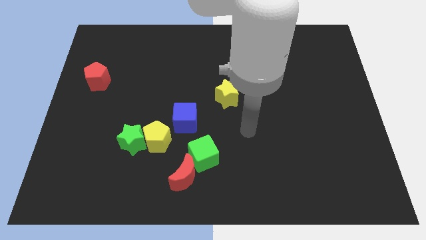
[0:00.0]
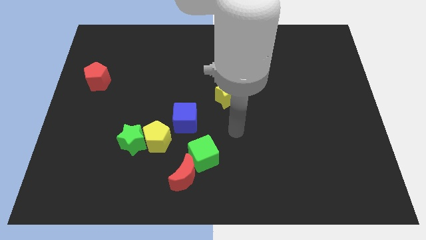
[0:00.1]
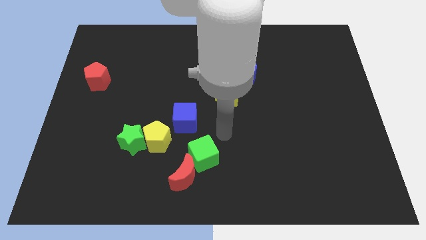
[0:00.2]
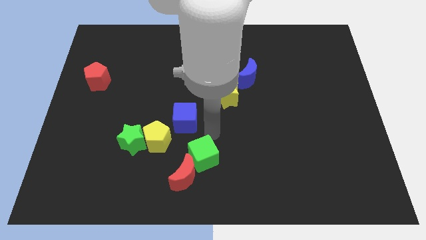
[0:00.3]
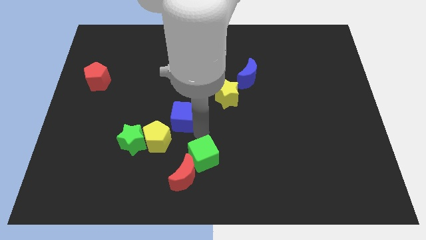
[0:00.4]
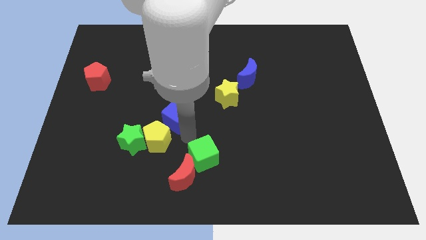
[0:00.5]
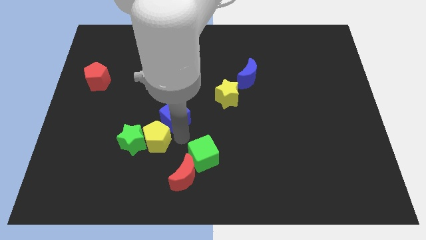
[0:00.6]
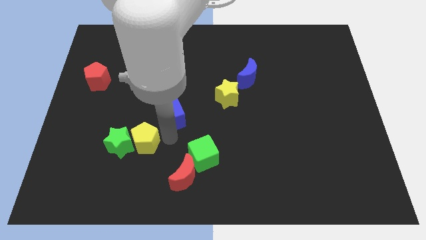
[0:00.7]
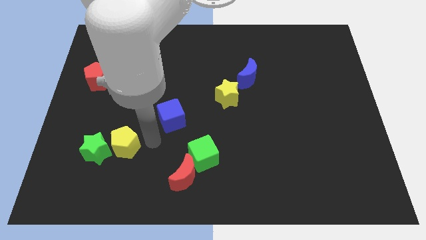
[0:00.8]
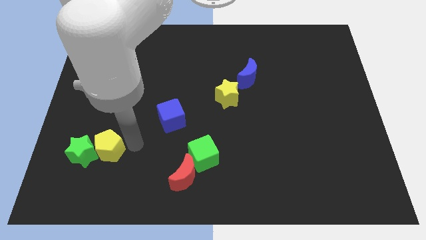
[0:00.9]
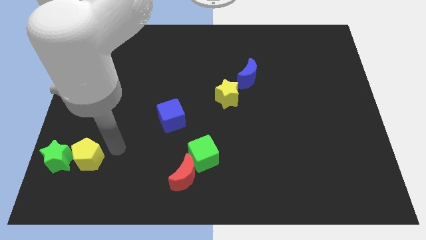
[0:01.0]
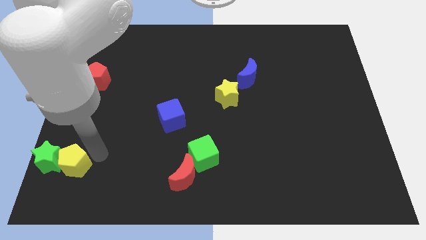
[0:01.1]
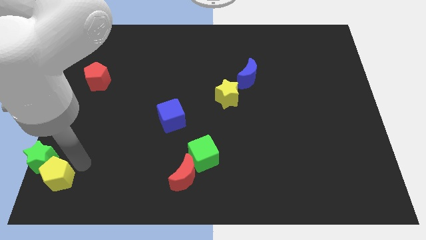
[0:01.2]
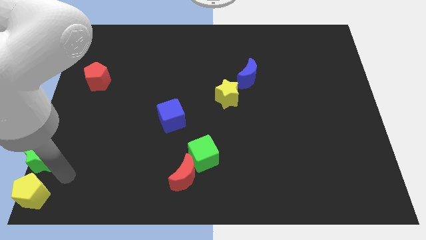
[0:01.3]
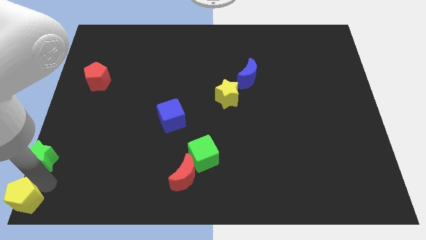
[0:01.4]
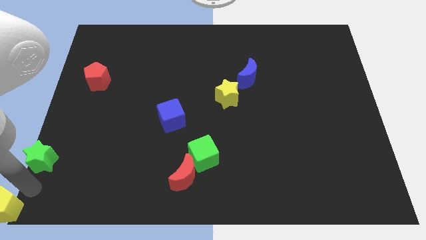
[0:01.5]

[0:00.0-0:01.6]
separate the green star from the yellow pentagon

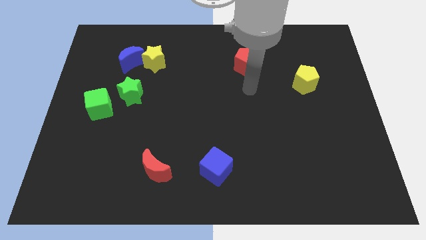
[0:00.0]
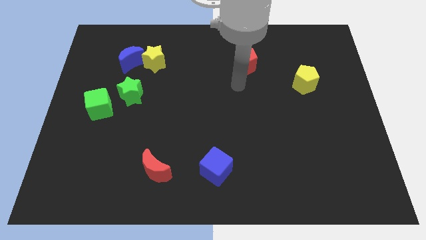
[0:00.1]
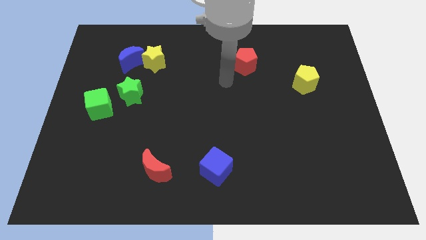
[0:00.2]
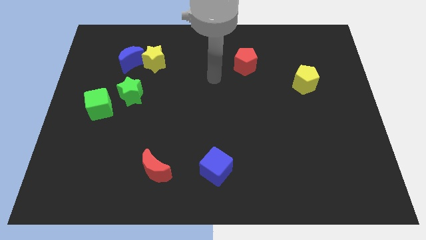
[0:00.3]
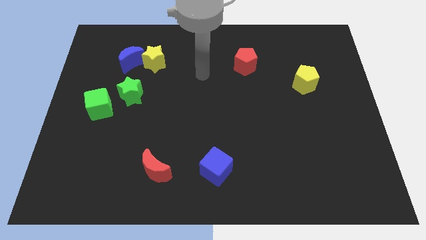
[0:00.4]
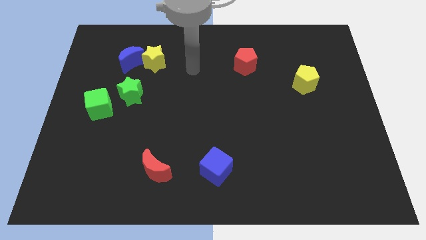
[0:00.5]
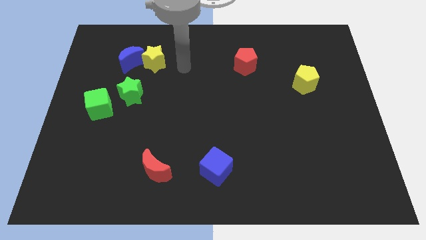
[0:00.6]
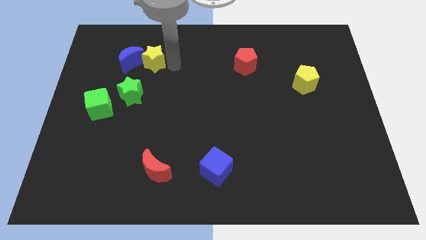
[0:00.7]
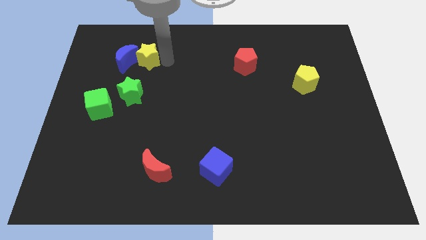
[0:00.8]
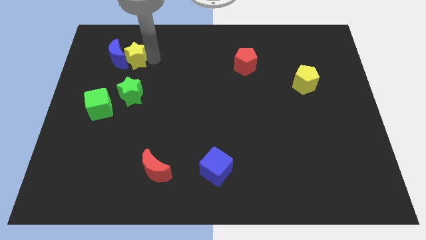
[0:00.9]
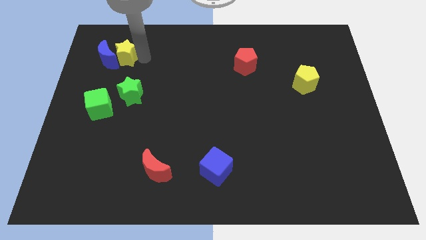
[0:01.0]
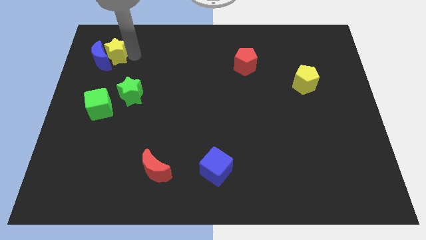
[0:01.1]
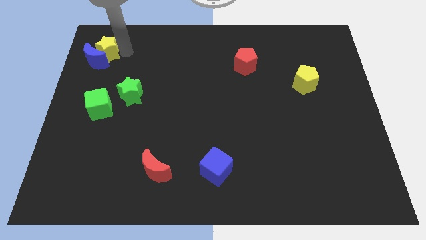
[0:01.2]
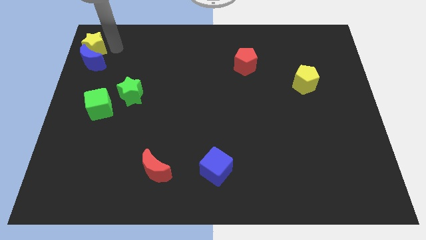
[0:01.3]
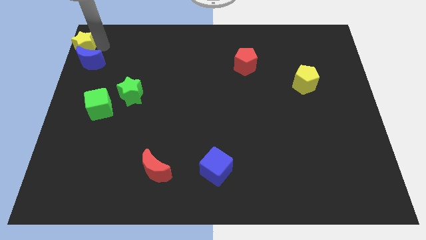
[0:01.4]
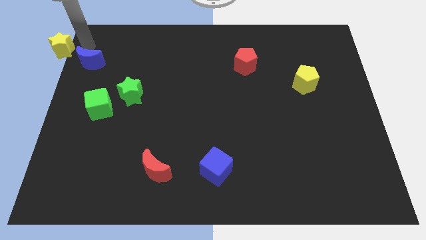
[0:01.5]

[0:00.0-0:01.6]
move the blue moon away from the yellow star

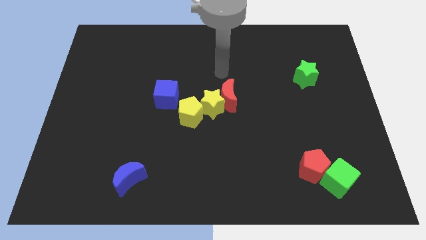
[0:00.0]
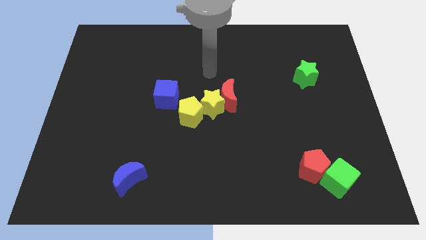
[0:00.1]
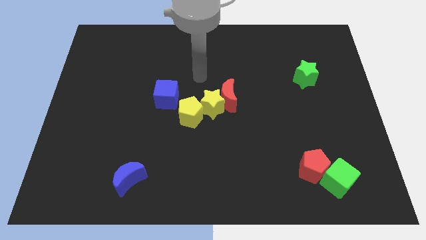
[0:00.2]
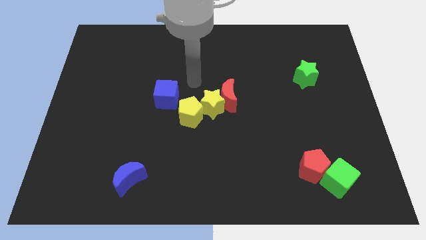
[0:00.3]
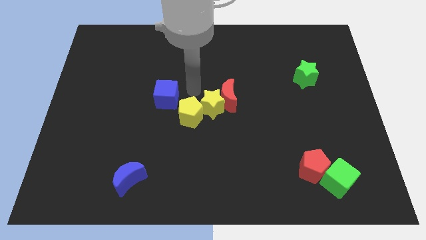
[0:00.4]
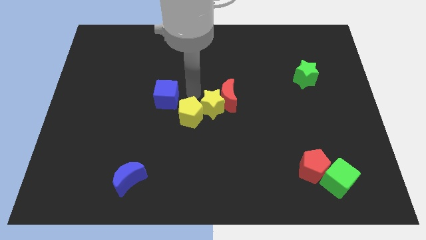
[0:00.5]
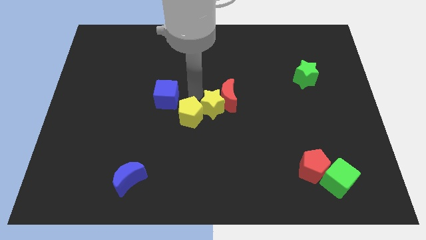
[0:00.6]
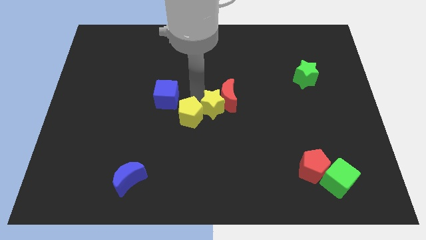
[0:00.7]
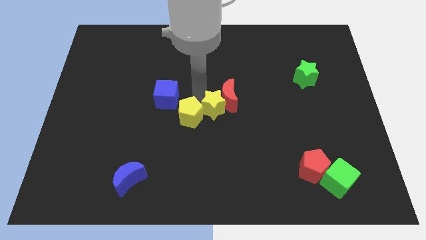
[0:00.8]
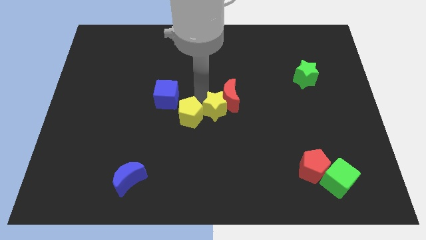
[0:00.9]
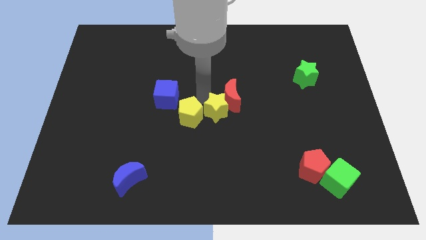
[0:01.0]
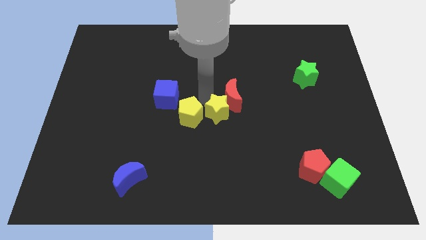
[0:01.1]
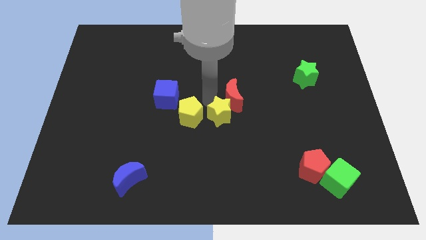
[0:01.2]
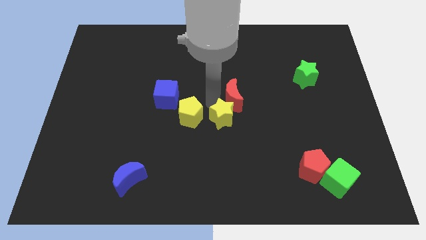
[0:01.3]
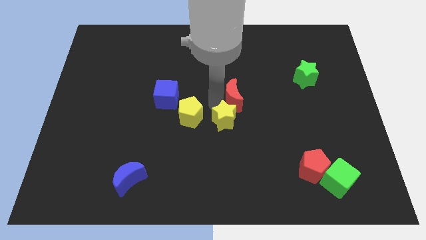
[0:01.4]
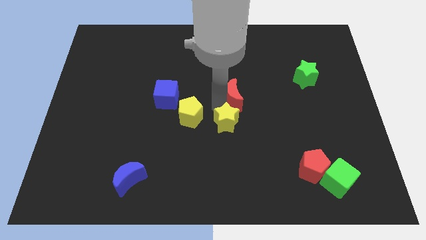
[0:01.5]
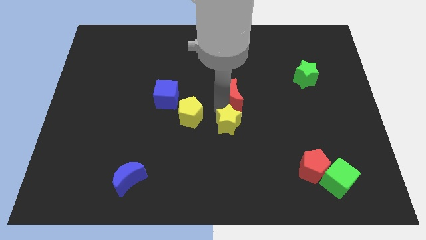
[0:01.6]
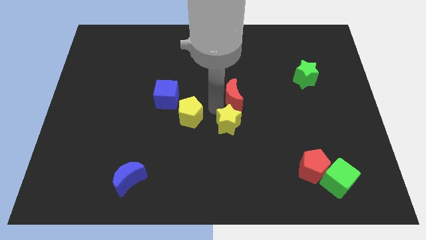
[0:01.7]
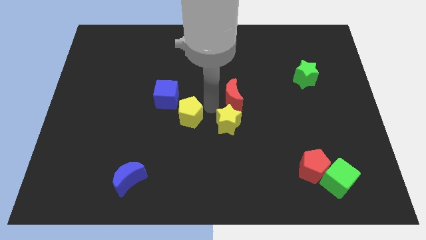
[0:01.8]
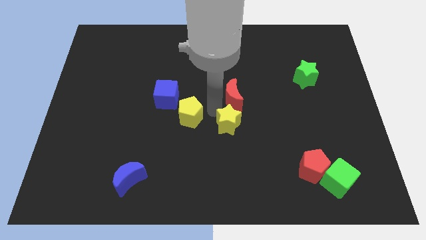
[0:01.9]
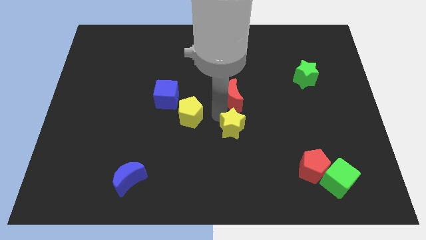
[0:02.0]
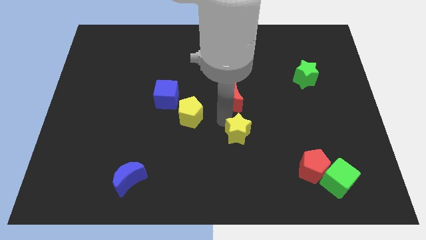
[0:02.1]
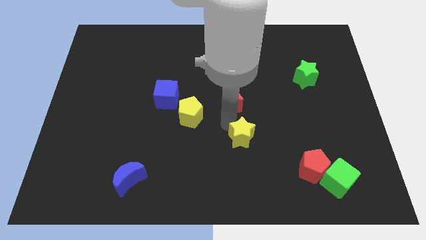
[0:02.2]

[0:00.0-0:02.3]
move the yellow star away from the red moon and yellow pentagon

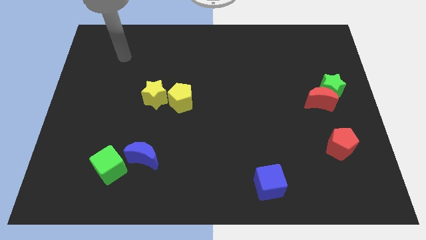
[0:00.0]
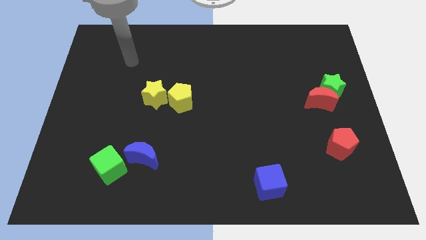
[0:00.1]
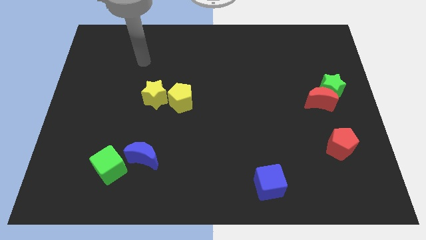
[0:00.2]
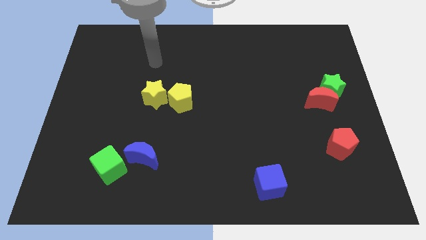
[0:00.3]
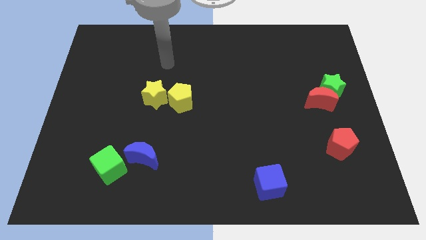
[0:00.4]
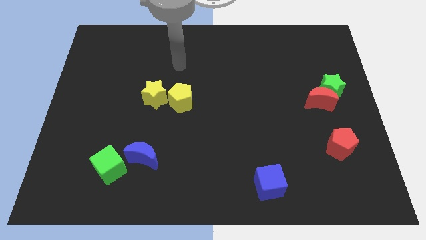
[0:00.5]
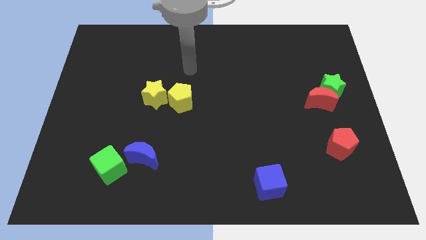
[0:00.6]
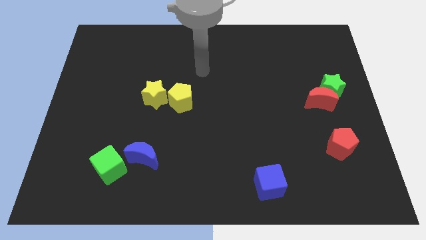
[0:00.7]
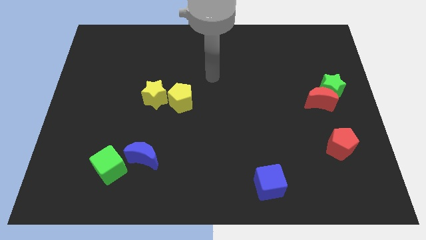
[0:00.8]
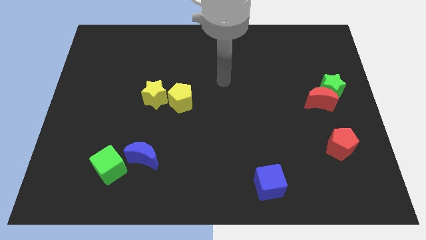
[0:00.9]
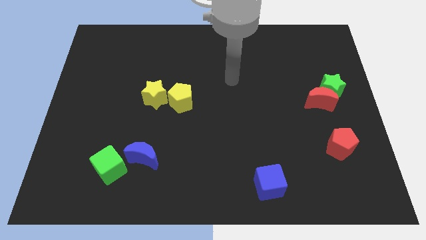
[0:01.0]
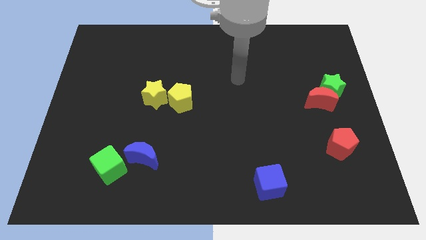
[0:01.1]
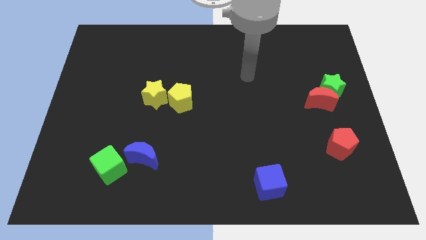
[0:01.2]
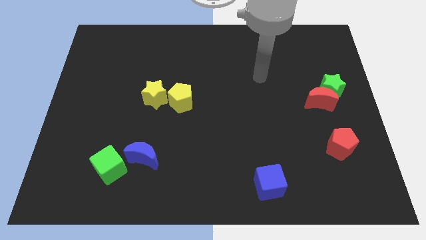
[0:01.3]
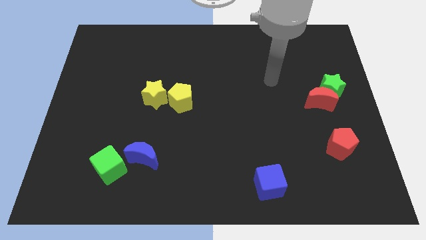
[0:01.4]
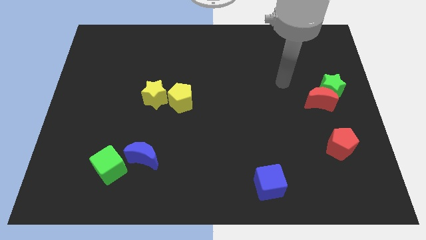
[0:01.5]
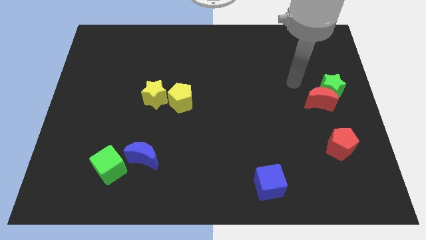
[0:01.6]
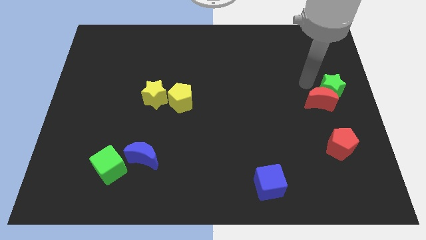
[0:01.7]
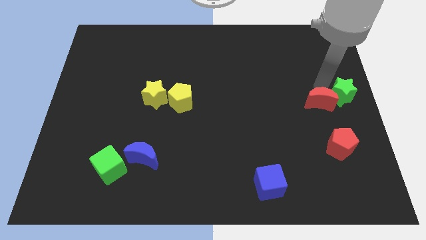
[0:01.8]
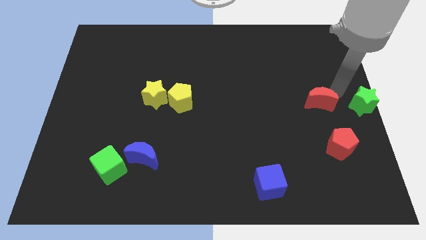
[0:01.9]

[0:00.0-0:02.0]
move the red moon away from the green star

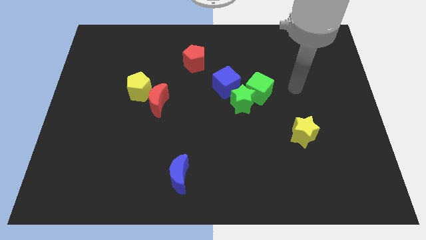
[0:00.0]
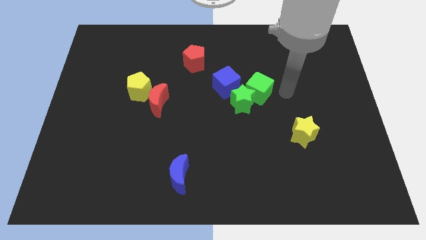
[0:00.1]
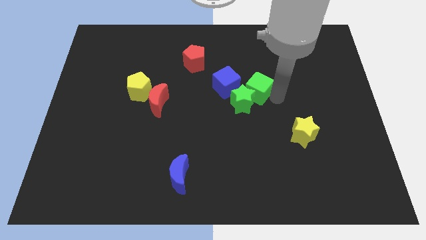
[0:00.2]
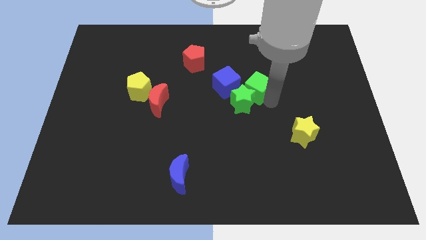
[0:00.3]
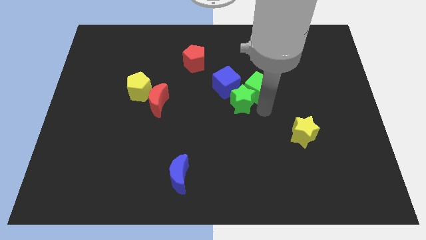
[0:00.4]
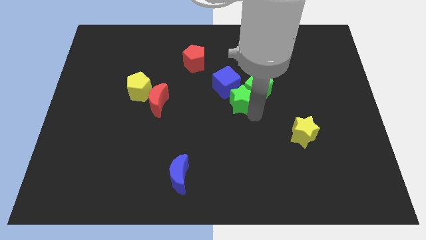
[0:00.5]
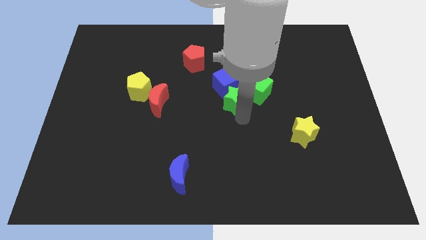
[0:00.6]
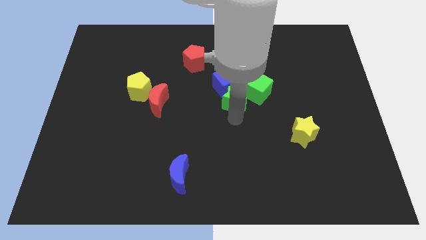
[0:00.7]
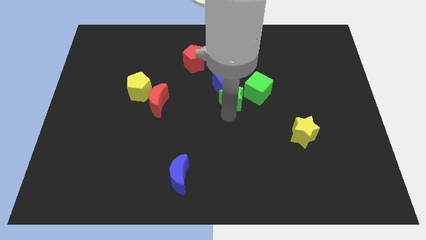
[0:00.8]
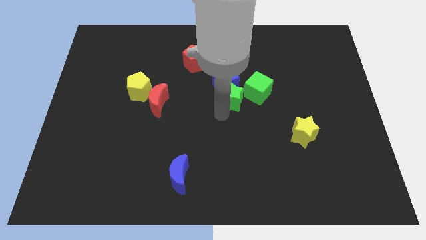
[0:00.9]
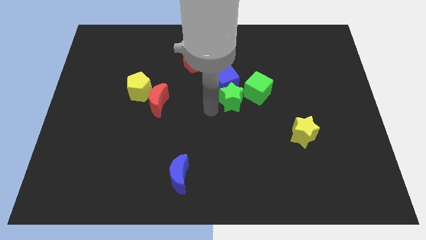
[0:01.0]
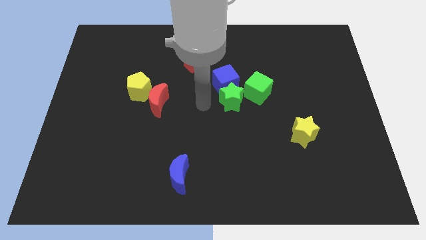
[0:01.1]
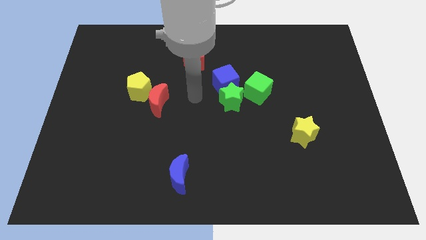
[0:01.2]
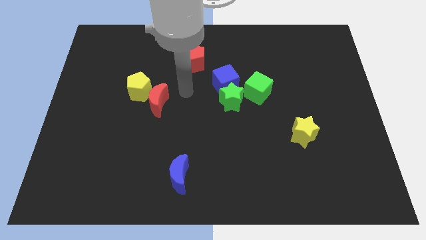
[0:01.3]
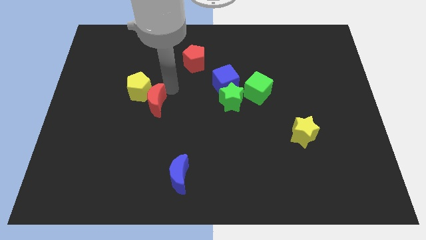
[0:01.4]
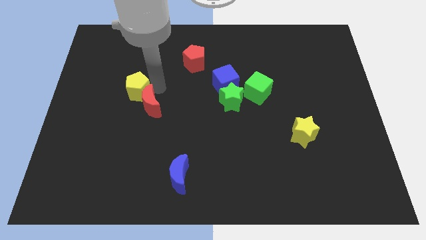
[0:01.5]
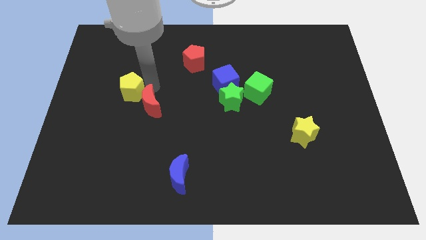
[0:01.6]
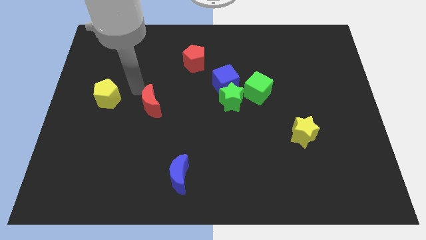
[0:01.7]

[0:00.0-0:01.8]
pull the red moon apart from the yellow pentagon
